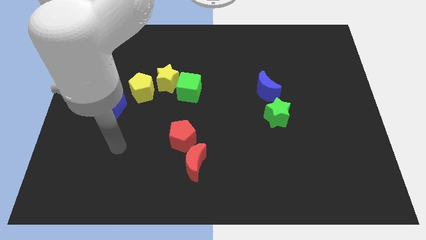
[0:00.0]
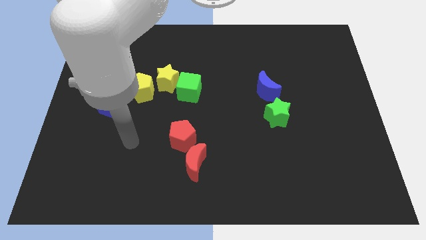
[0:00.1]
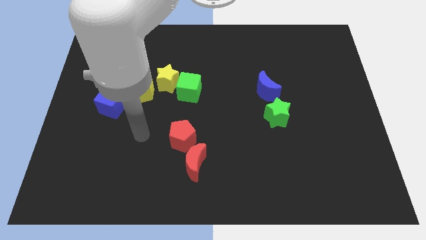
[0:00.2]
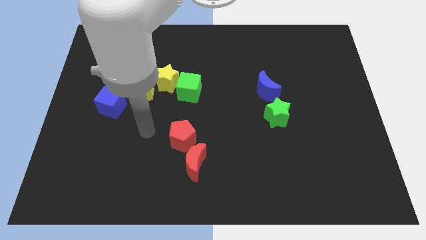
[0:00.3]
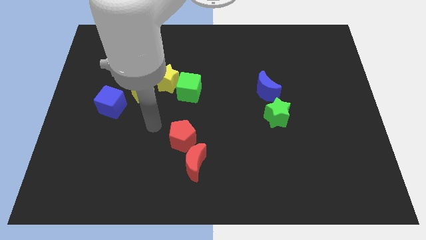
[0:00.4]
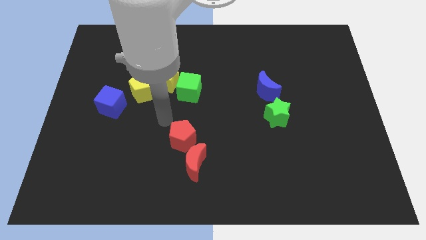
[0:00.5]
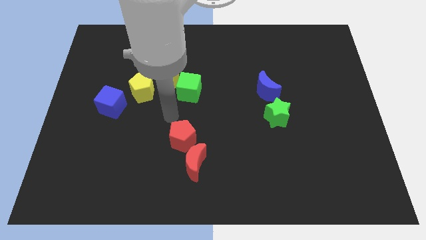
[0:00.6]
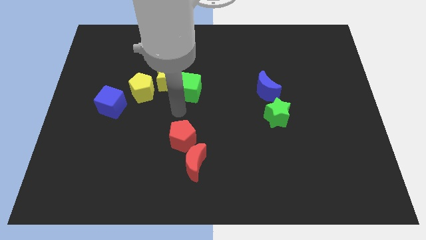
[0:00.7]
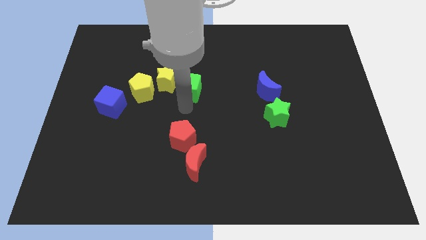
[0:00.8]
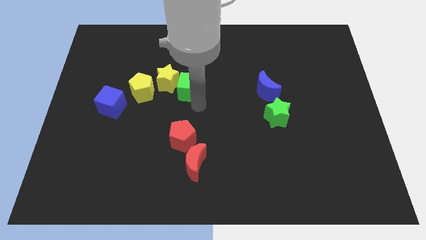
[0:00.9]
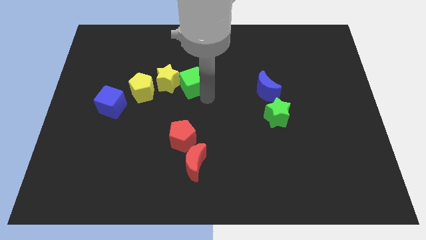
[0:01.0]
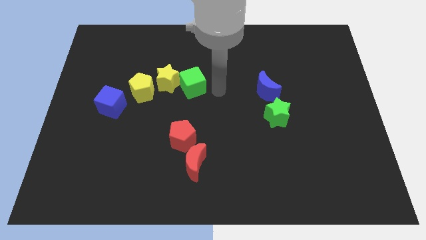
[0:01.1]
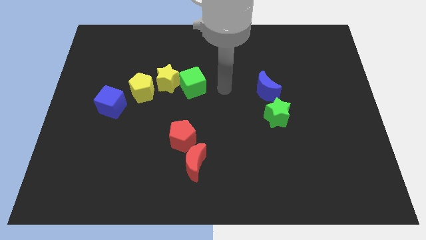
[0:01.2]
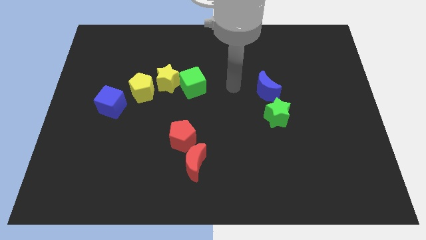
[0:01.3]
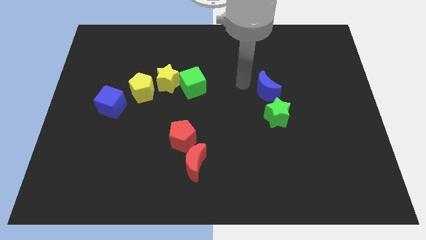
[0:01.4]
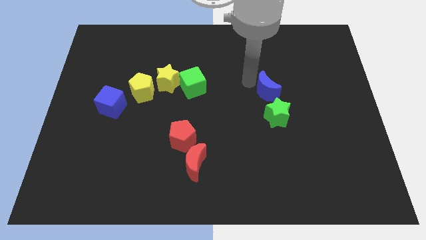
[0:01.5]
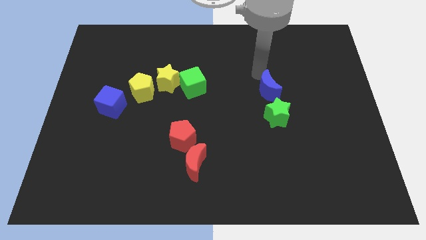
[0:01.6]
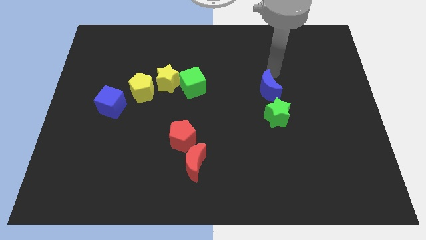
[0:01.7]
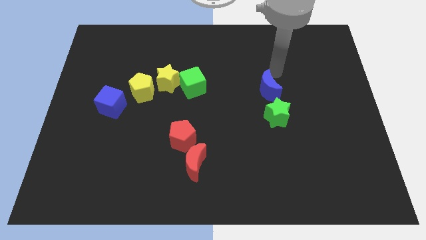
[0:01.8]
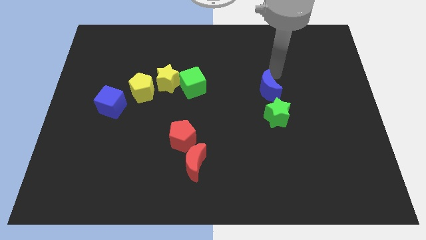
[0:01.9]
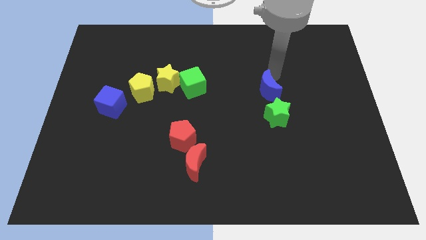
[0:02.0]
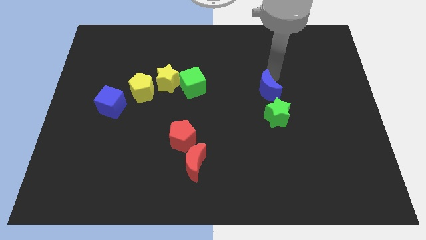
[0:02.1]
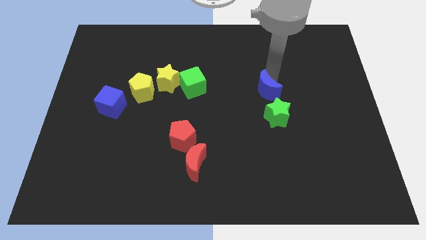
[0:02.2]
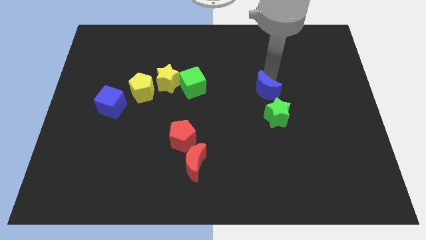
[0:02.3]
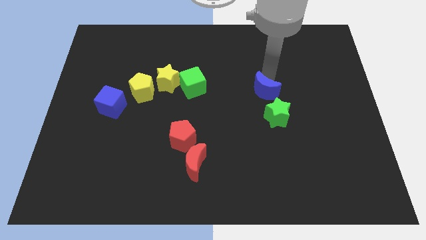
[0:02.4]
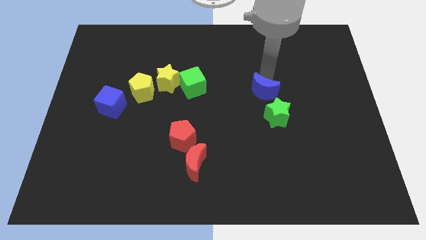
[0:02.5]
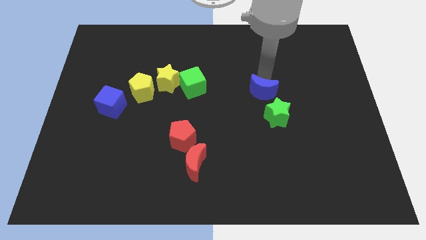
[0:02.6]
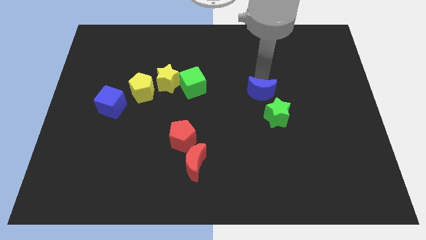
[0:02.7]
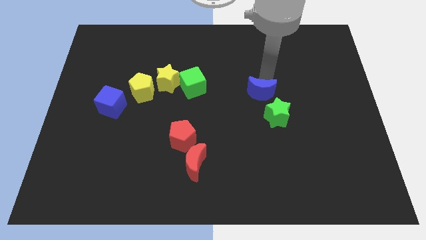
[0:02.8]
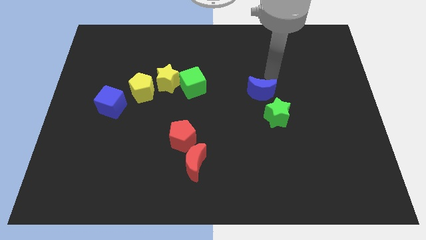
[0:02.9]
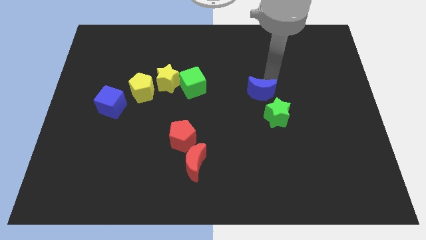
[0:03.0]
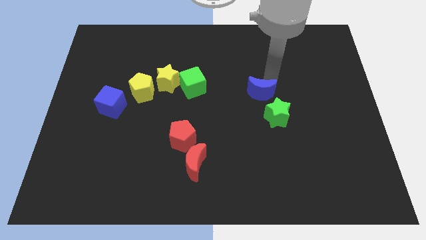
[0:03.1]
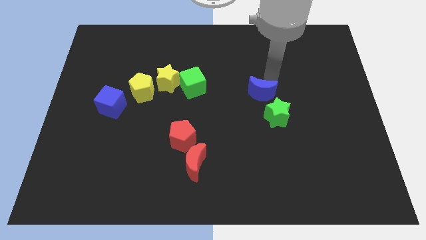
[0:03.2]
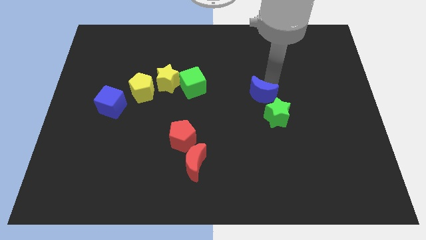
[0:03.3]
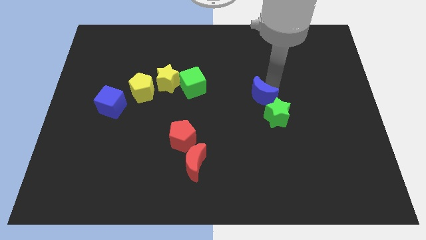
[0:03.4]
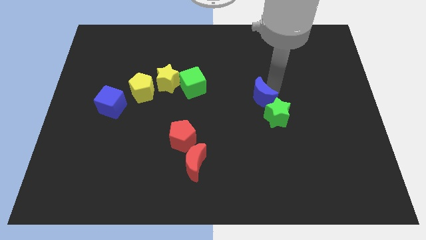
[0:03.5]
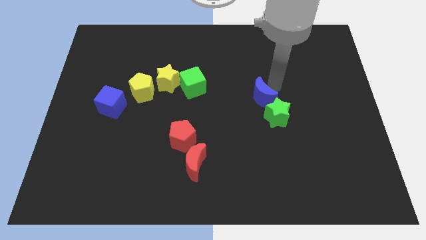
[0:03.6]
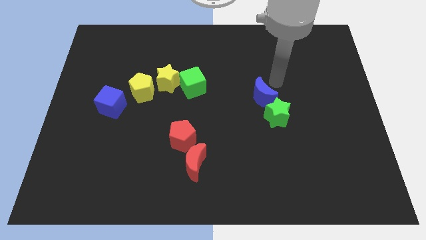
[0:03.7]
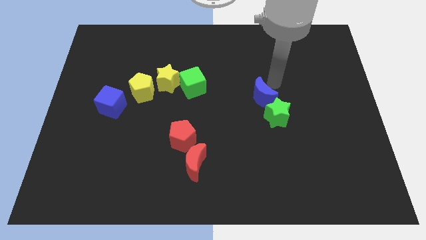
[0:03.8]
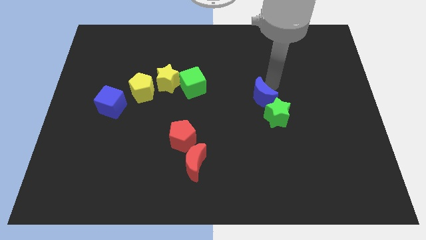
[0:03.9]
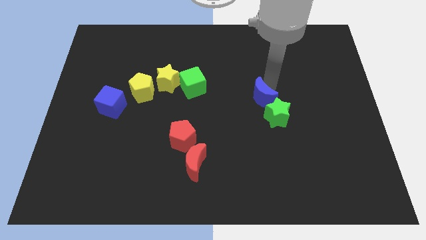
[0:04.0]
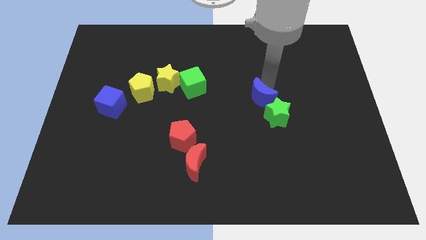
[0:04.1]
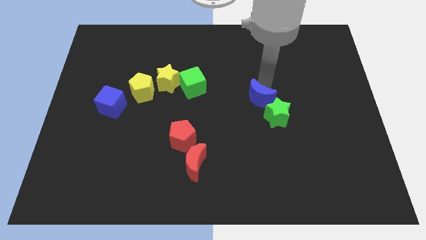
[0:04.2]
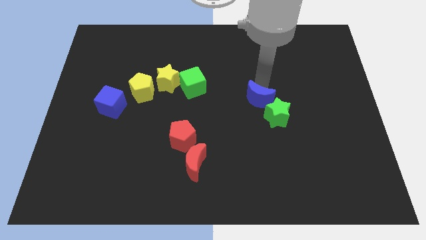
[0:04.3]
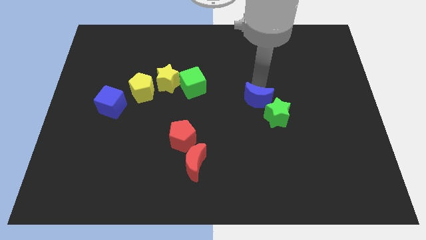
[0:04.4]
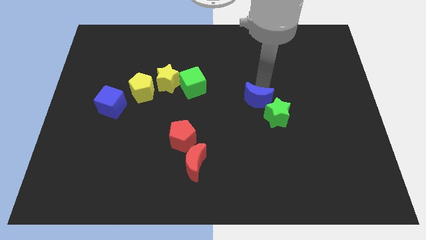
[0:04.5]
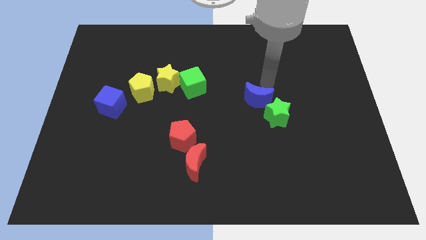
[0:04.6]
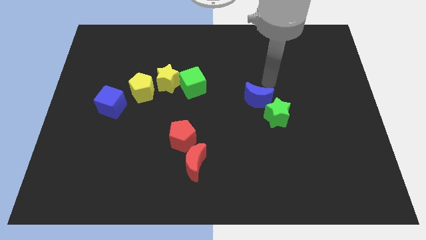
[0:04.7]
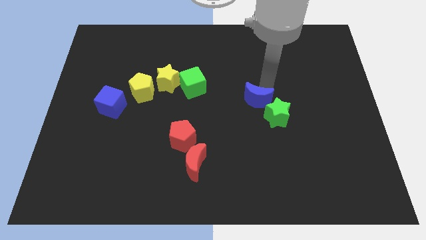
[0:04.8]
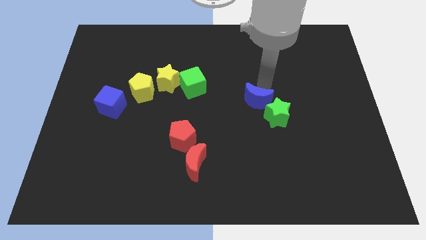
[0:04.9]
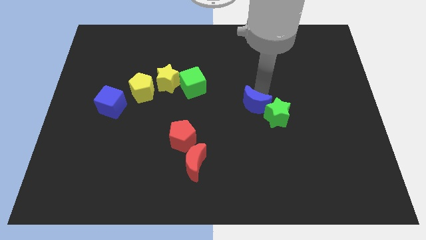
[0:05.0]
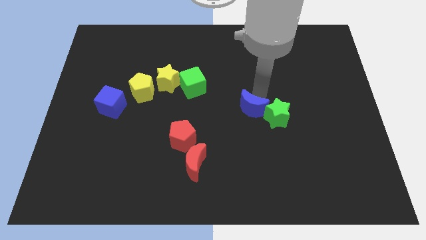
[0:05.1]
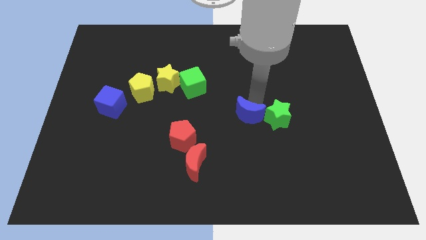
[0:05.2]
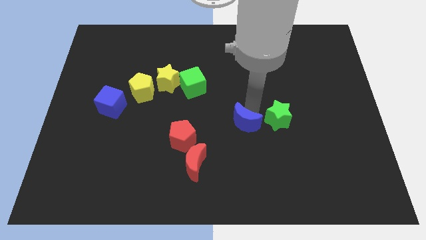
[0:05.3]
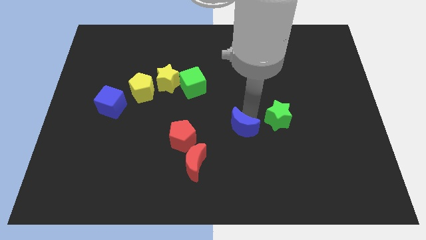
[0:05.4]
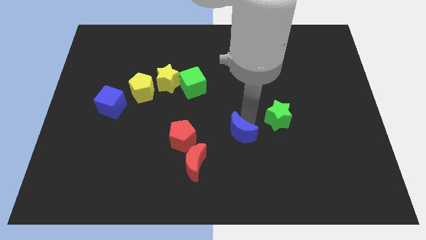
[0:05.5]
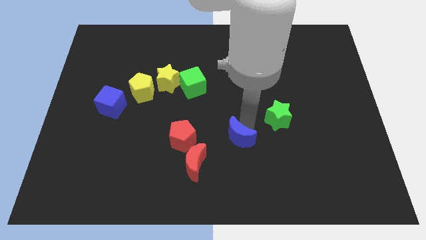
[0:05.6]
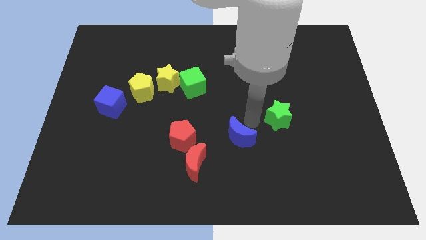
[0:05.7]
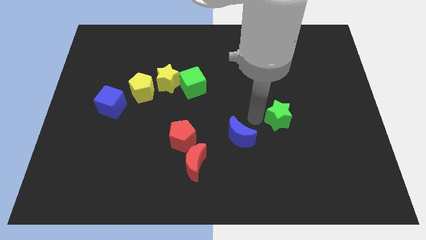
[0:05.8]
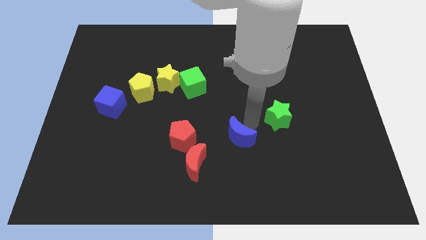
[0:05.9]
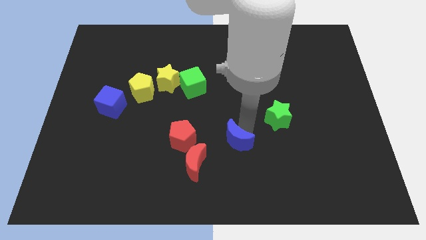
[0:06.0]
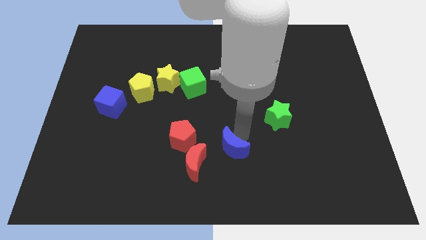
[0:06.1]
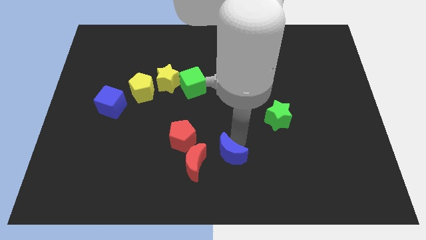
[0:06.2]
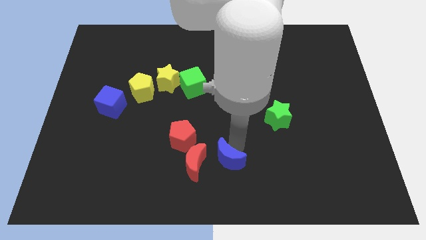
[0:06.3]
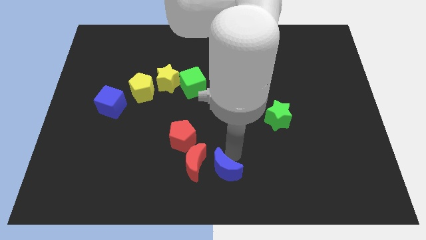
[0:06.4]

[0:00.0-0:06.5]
slide the blue moon downwards and to the left diagonally

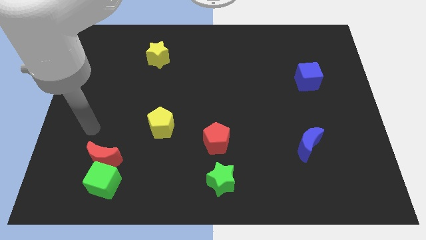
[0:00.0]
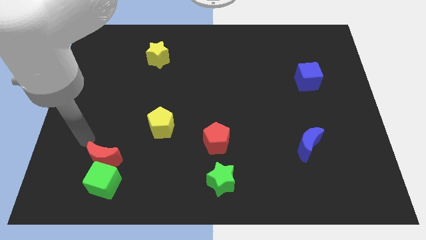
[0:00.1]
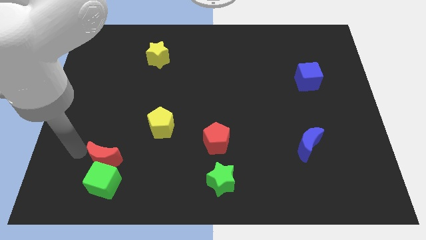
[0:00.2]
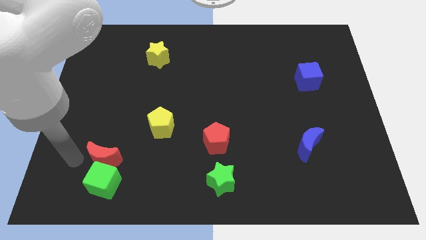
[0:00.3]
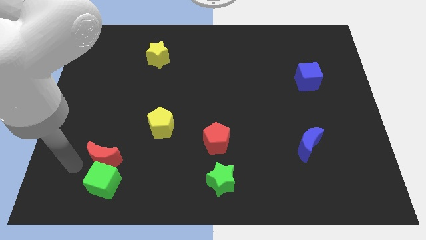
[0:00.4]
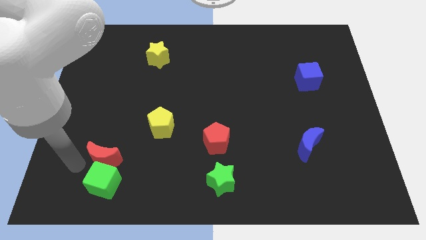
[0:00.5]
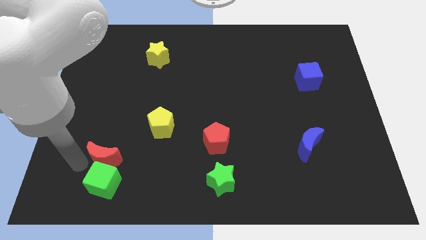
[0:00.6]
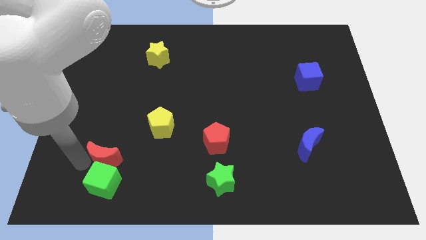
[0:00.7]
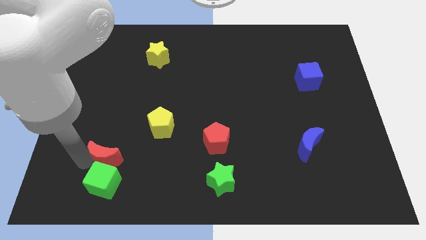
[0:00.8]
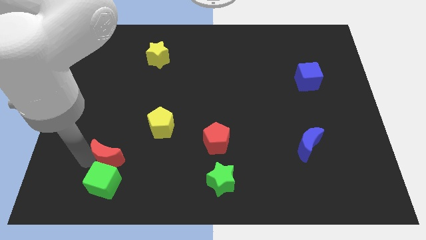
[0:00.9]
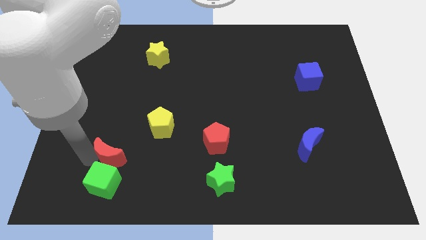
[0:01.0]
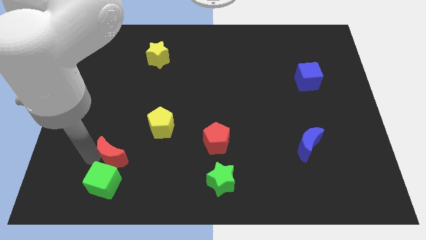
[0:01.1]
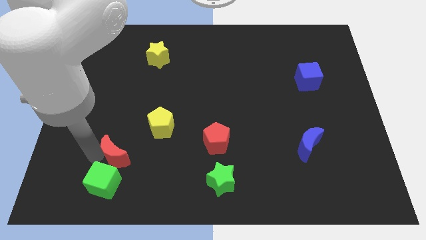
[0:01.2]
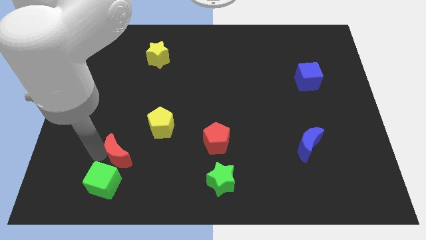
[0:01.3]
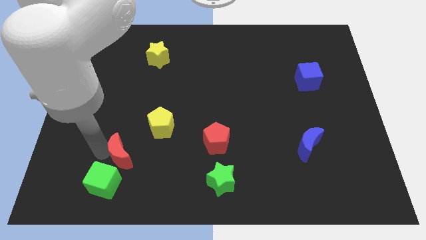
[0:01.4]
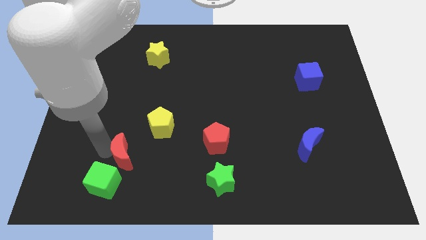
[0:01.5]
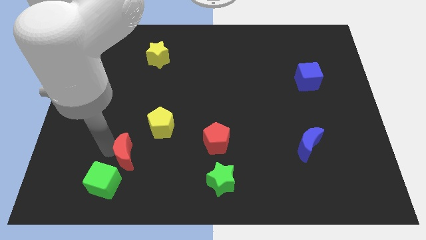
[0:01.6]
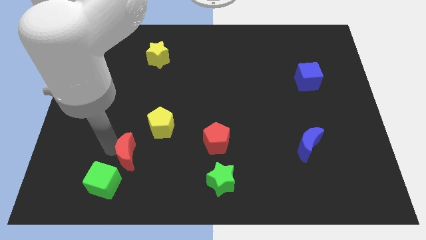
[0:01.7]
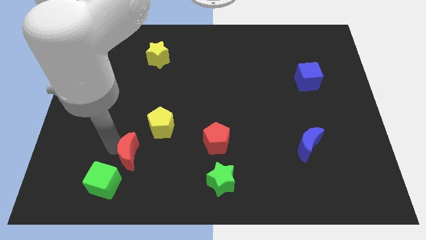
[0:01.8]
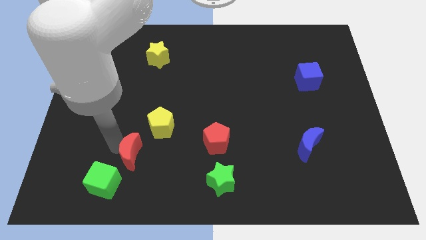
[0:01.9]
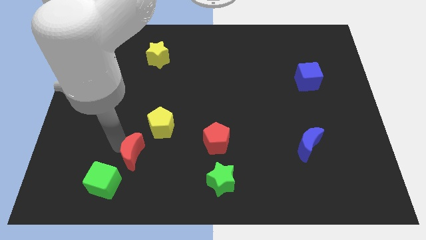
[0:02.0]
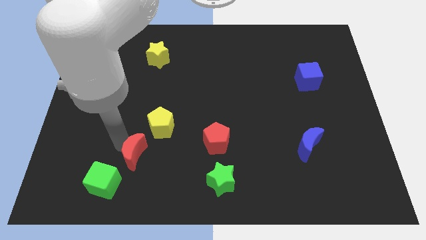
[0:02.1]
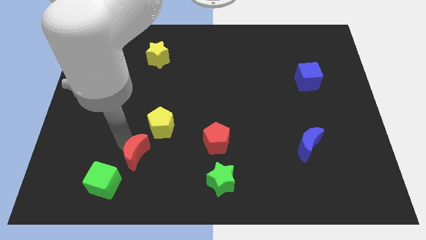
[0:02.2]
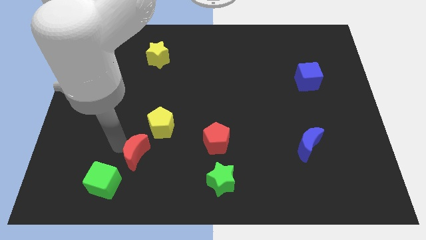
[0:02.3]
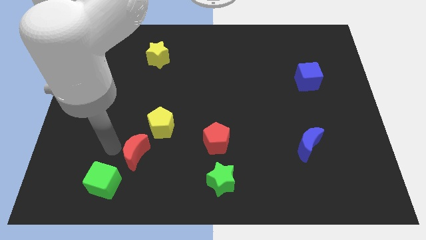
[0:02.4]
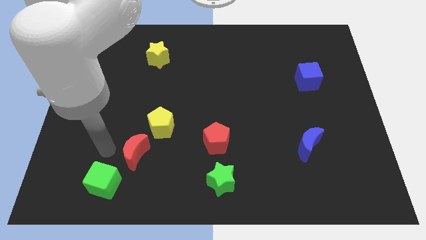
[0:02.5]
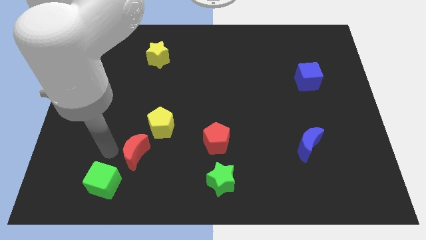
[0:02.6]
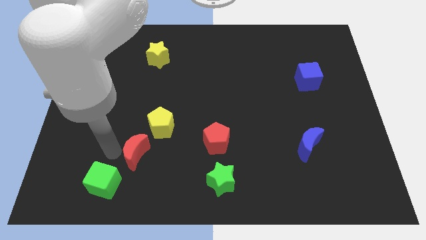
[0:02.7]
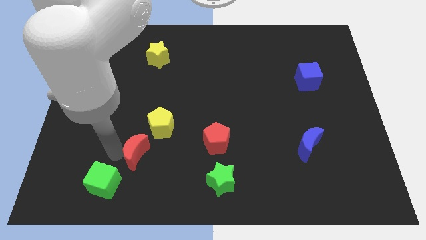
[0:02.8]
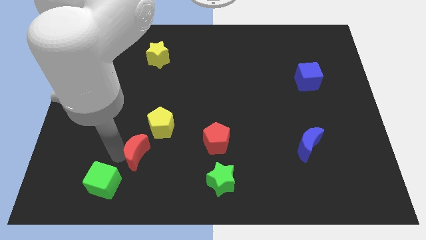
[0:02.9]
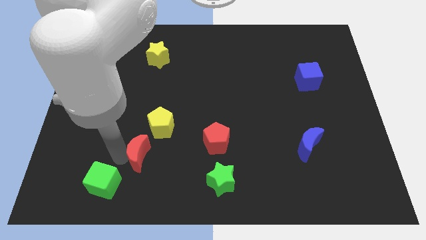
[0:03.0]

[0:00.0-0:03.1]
slightly move the red moon right
